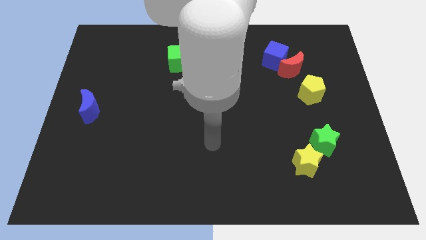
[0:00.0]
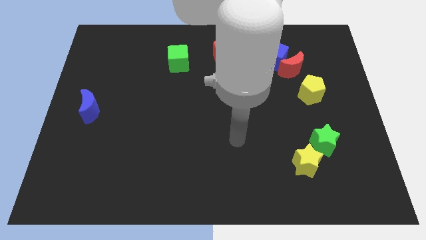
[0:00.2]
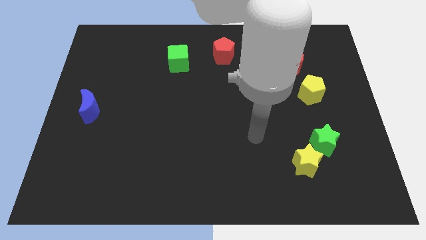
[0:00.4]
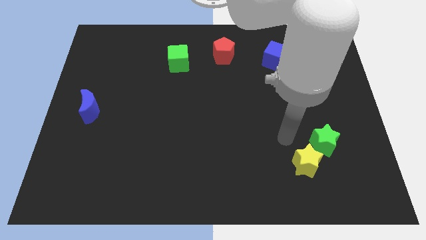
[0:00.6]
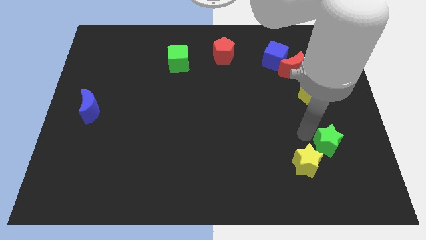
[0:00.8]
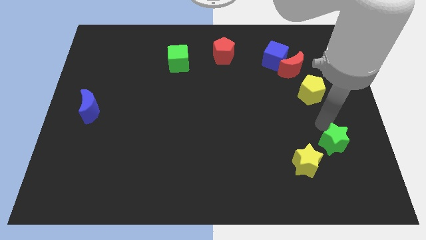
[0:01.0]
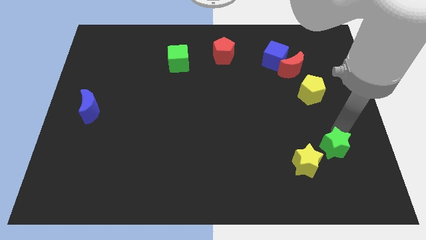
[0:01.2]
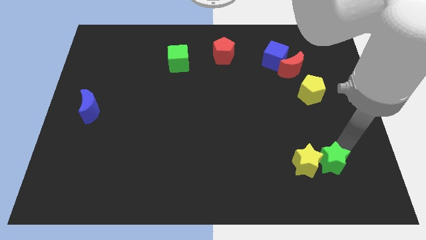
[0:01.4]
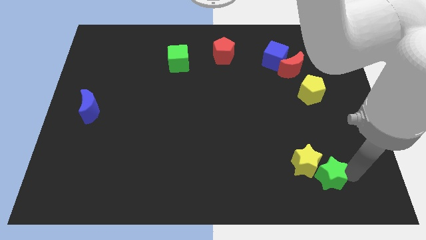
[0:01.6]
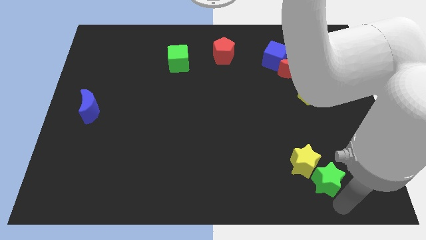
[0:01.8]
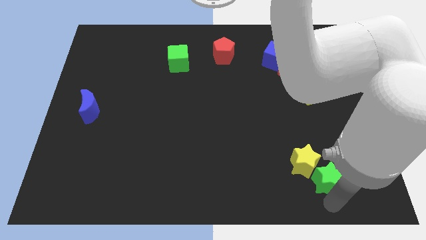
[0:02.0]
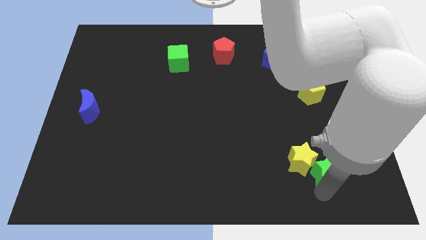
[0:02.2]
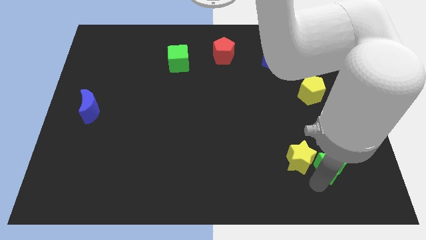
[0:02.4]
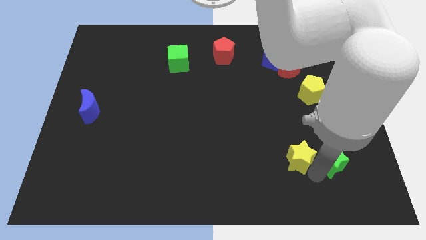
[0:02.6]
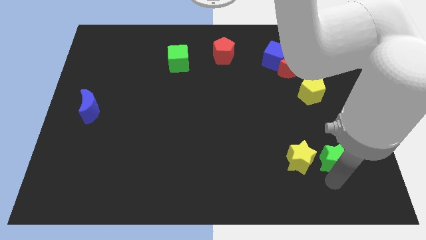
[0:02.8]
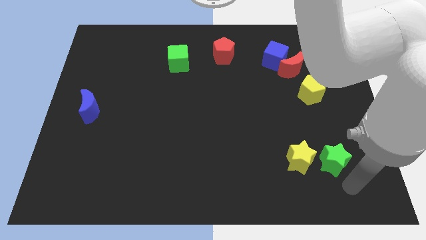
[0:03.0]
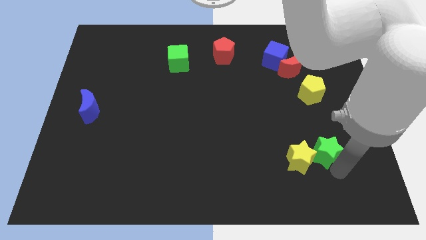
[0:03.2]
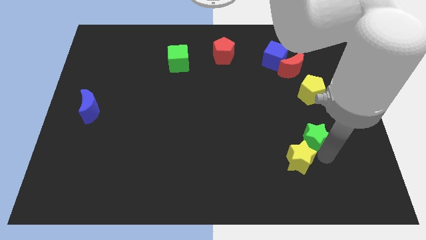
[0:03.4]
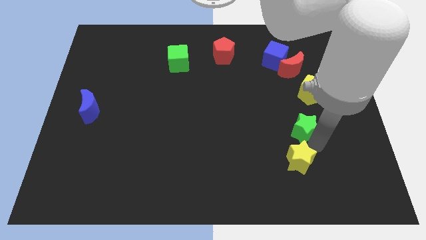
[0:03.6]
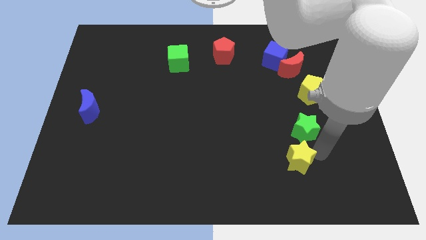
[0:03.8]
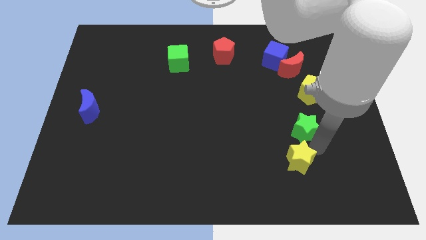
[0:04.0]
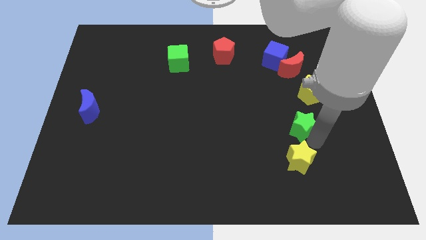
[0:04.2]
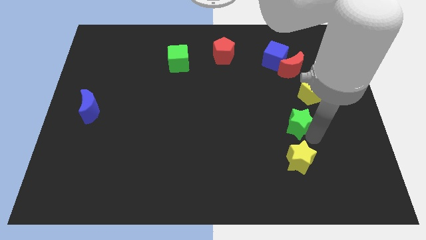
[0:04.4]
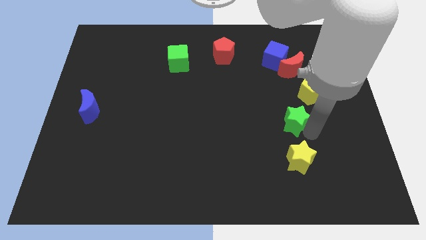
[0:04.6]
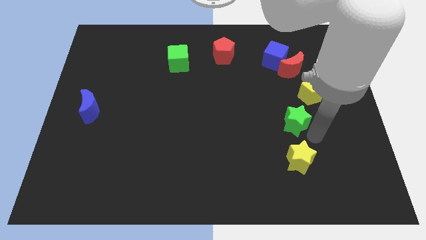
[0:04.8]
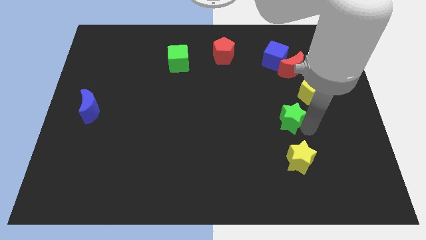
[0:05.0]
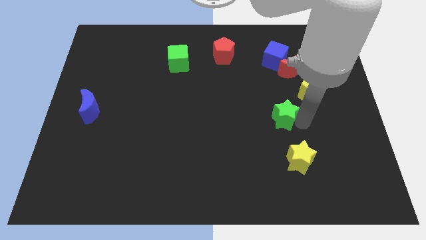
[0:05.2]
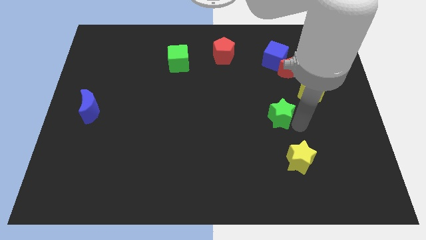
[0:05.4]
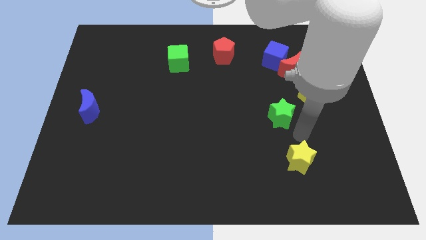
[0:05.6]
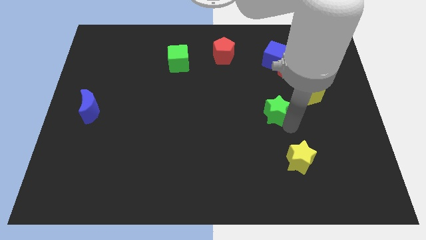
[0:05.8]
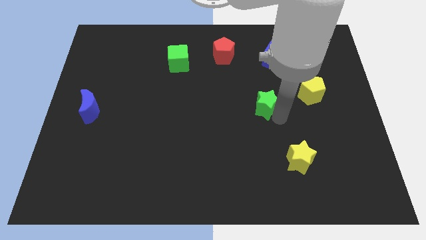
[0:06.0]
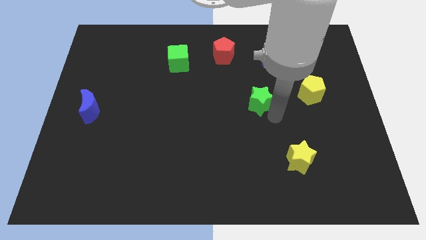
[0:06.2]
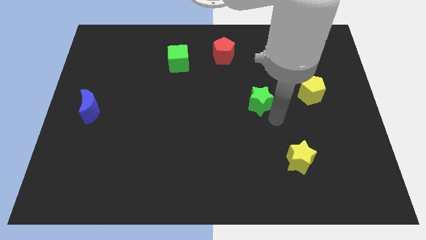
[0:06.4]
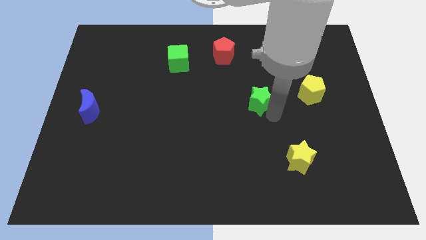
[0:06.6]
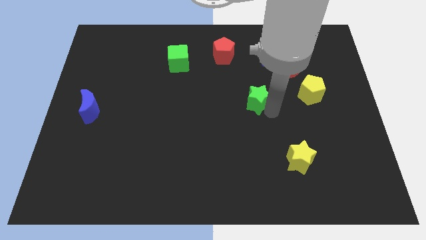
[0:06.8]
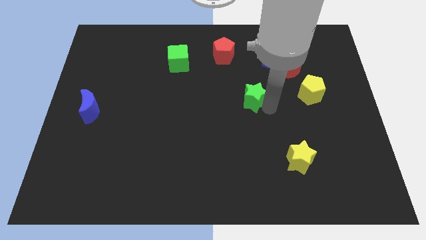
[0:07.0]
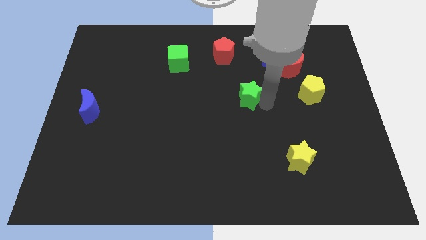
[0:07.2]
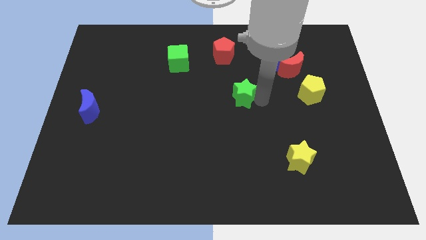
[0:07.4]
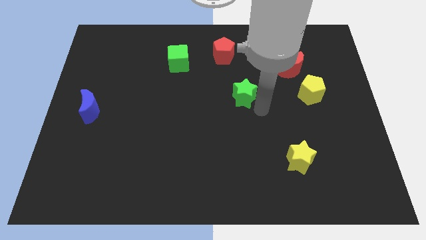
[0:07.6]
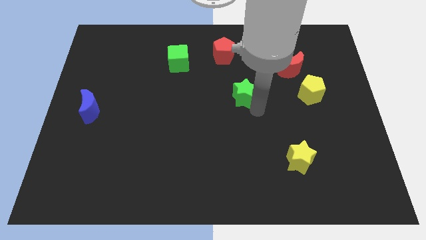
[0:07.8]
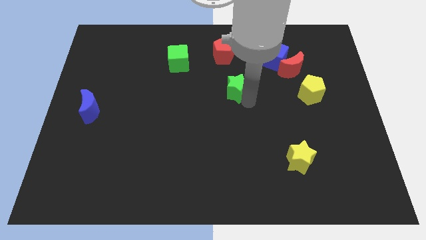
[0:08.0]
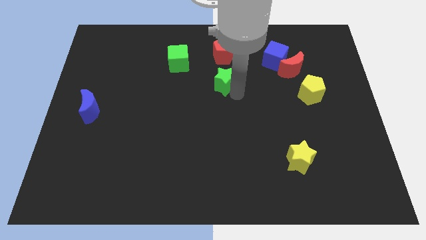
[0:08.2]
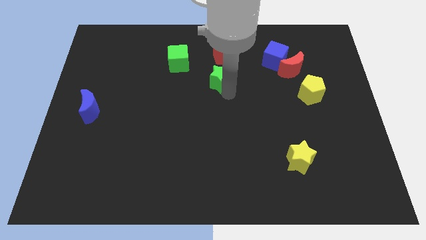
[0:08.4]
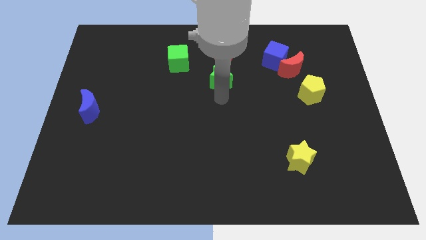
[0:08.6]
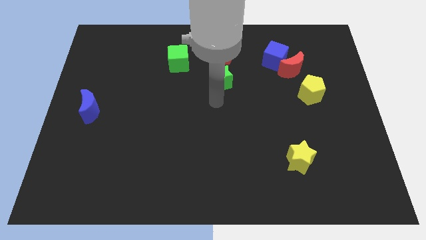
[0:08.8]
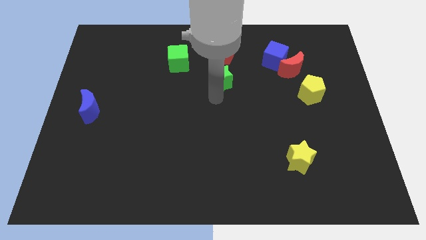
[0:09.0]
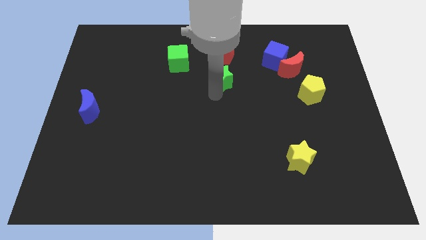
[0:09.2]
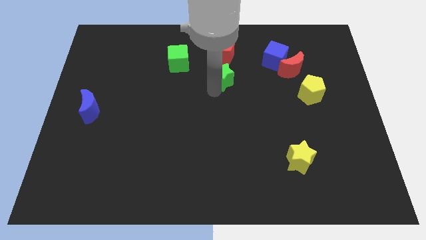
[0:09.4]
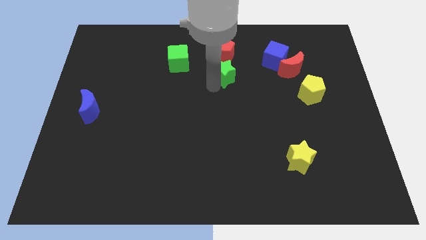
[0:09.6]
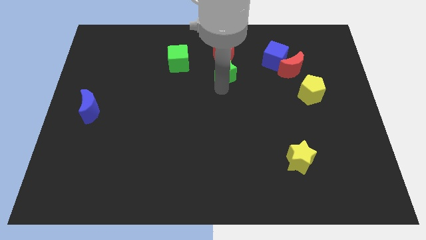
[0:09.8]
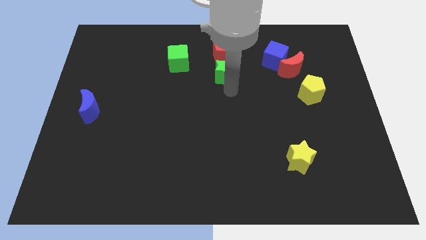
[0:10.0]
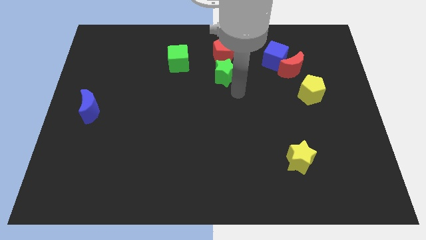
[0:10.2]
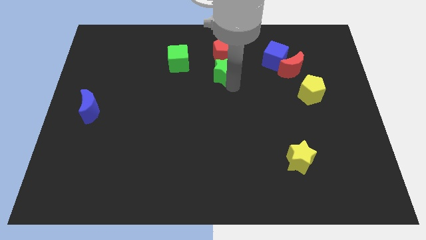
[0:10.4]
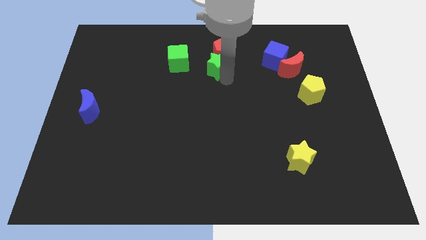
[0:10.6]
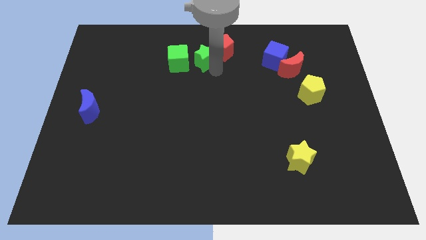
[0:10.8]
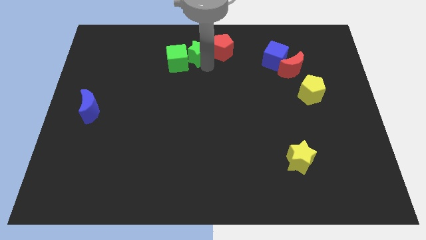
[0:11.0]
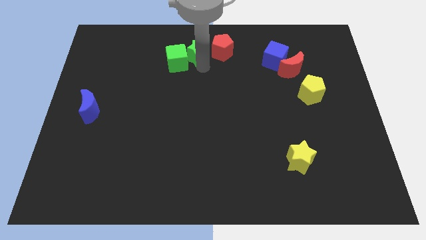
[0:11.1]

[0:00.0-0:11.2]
move the green star to the towards your base

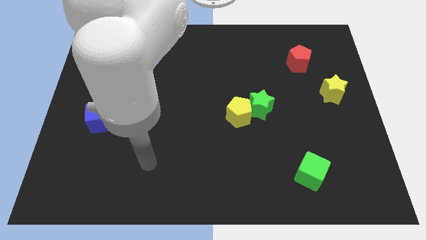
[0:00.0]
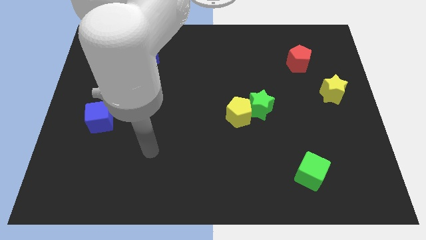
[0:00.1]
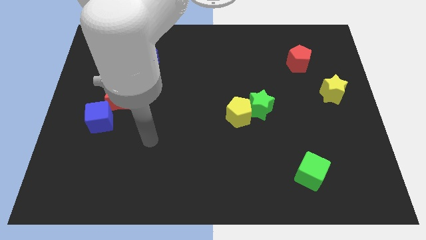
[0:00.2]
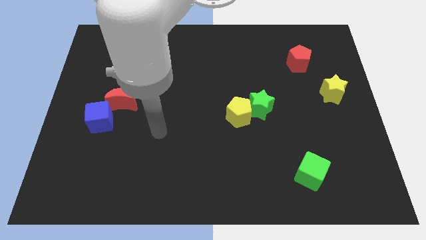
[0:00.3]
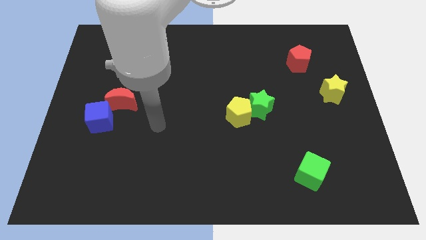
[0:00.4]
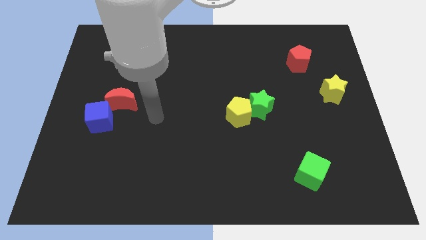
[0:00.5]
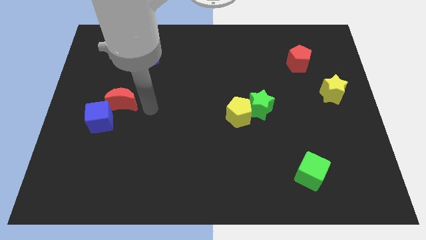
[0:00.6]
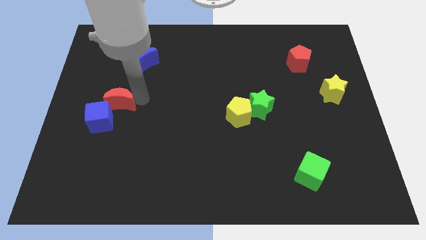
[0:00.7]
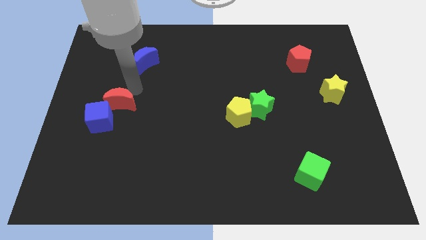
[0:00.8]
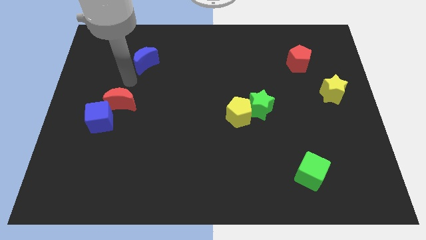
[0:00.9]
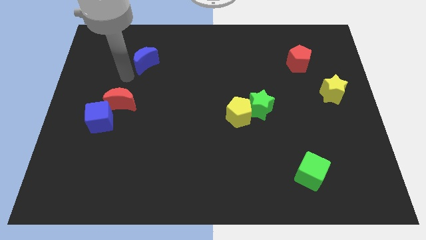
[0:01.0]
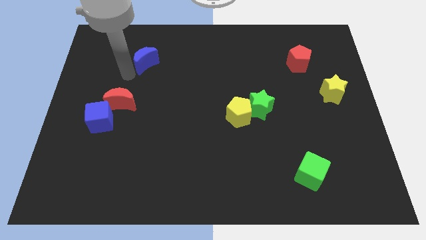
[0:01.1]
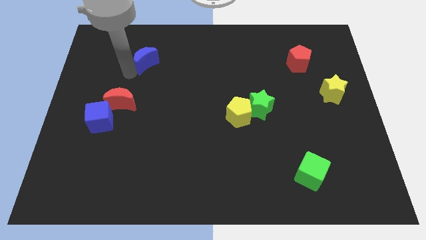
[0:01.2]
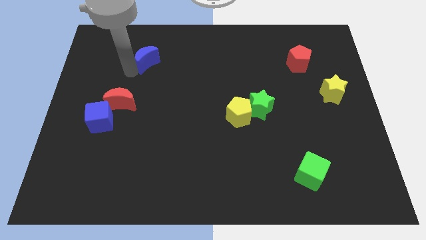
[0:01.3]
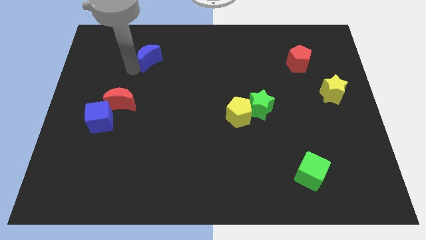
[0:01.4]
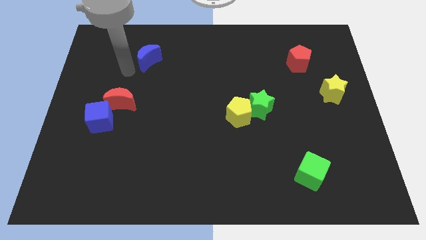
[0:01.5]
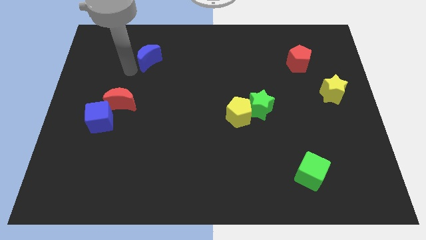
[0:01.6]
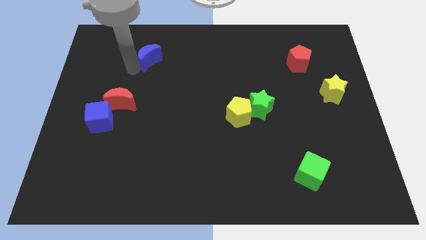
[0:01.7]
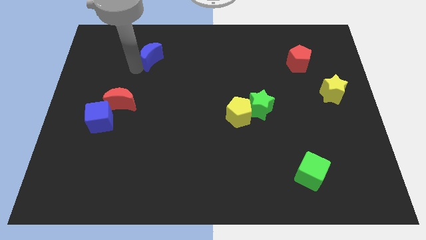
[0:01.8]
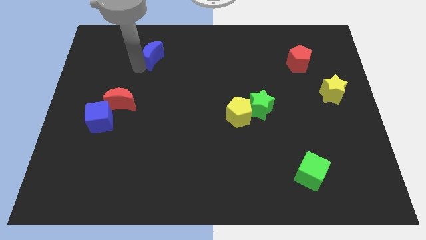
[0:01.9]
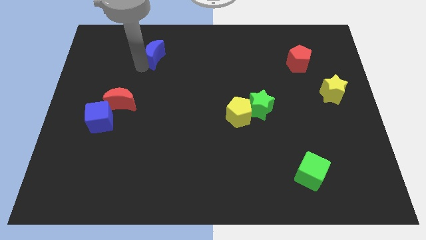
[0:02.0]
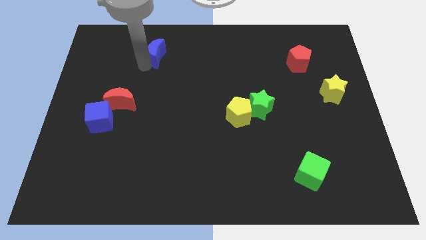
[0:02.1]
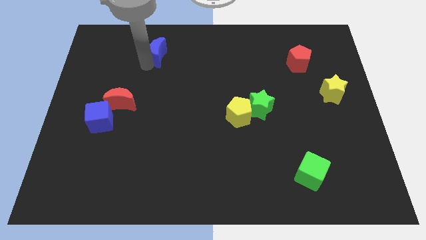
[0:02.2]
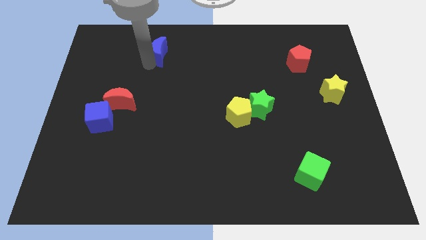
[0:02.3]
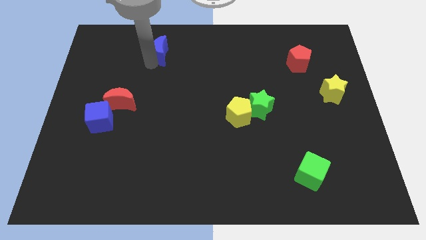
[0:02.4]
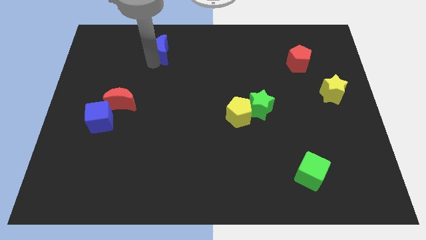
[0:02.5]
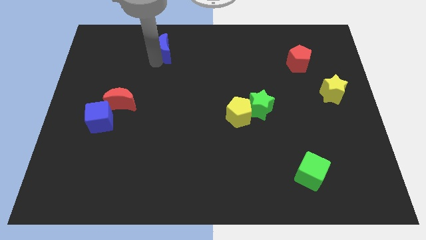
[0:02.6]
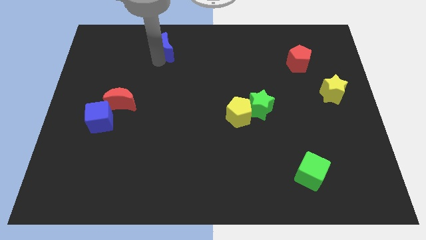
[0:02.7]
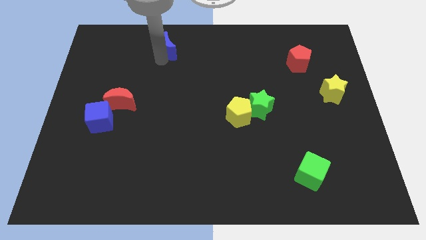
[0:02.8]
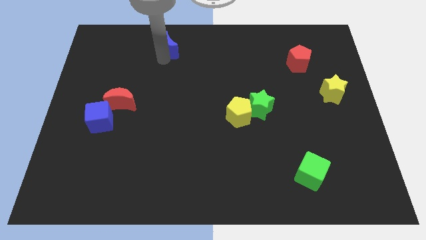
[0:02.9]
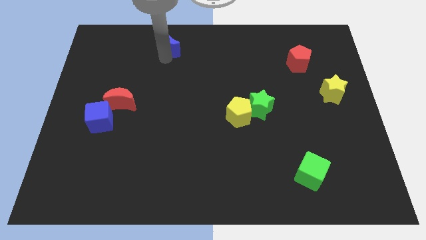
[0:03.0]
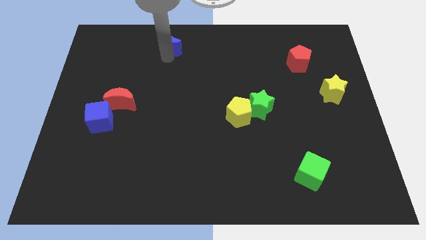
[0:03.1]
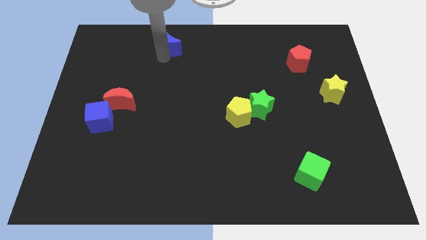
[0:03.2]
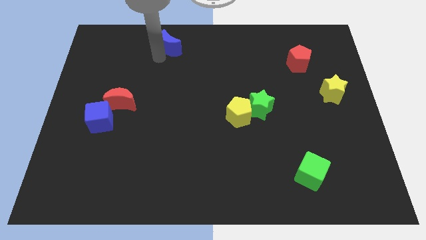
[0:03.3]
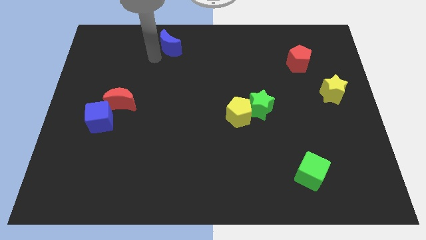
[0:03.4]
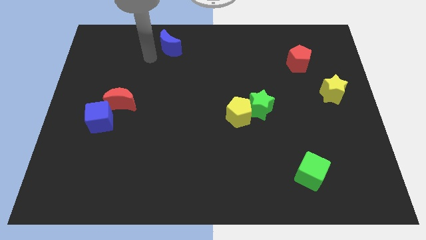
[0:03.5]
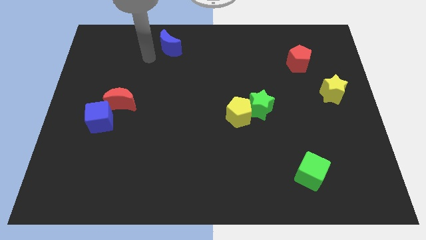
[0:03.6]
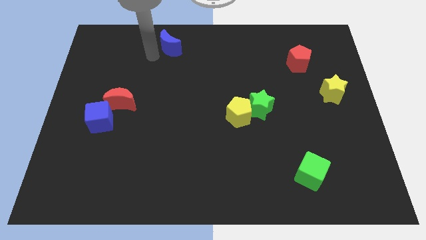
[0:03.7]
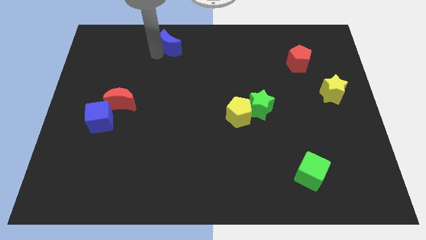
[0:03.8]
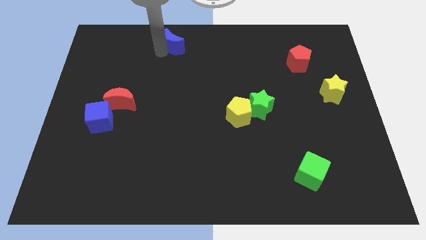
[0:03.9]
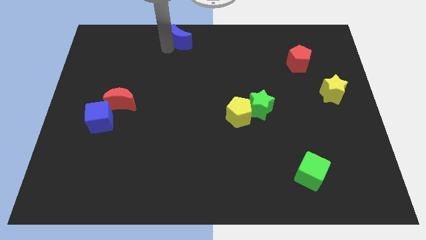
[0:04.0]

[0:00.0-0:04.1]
slide the blue moon to the towards your base
